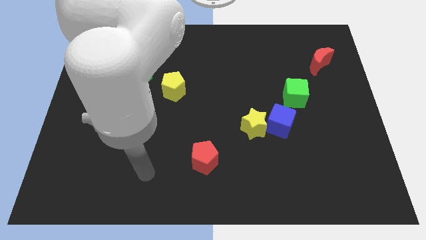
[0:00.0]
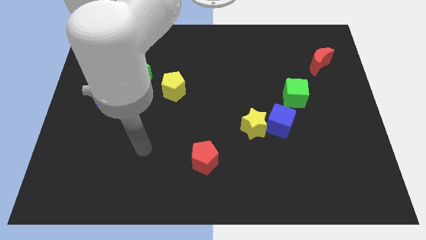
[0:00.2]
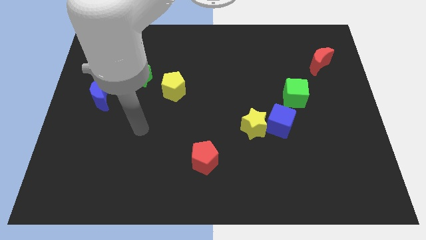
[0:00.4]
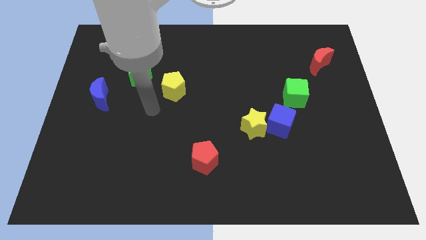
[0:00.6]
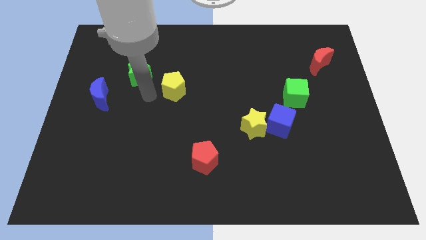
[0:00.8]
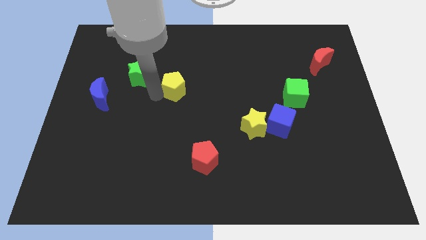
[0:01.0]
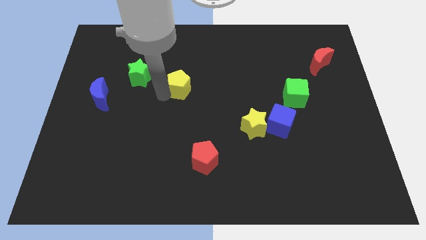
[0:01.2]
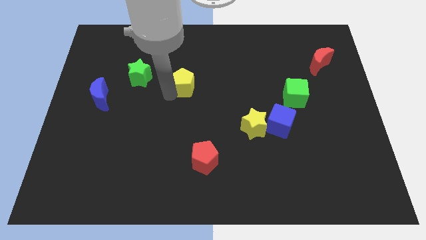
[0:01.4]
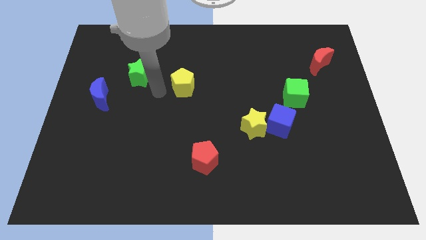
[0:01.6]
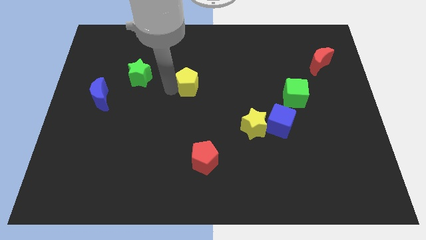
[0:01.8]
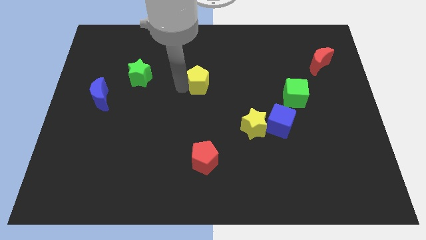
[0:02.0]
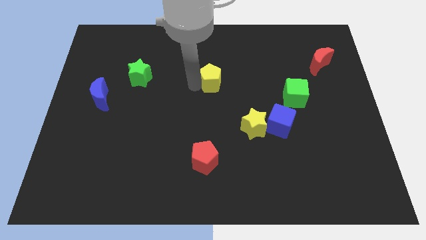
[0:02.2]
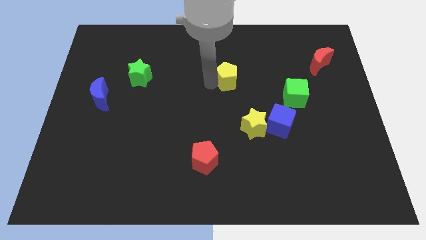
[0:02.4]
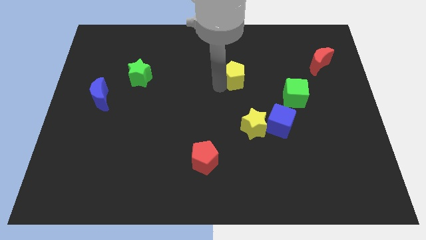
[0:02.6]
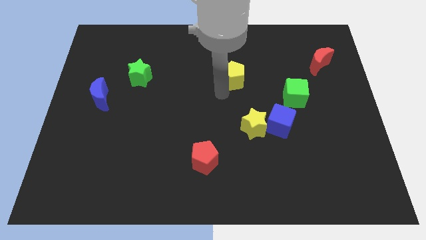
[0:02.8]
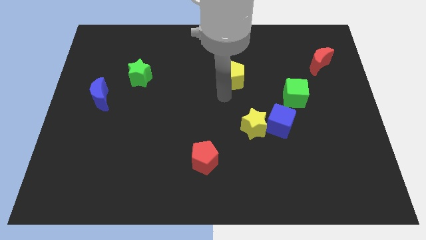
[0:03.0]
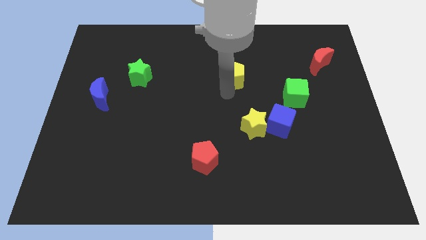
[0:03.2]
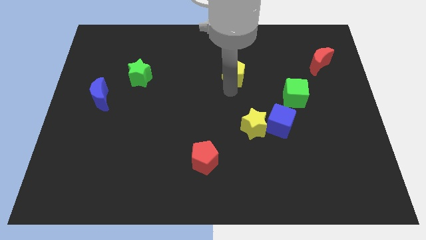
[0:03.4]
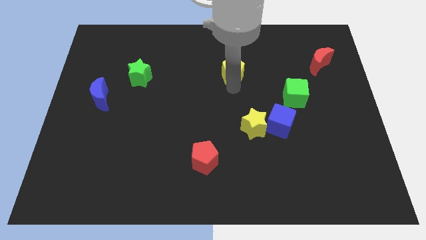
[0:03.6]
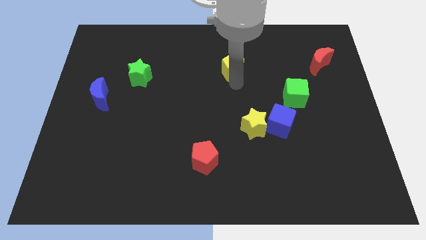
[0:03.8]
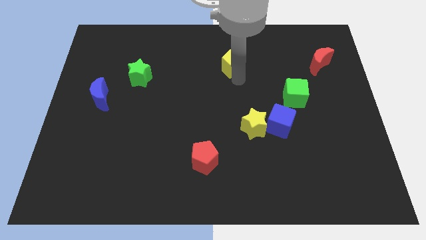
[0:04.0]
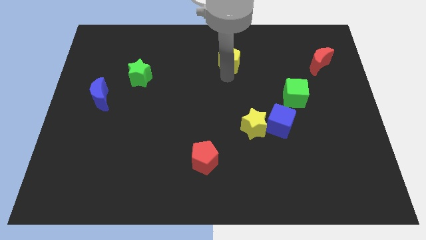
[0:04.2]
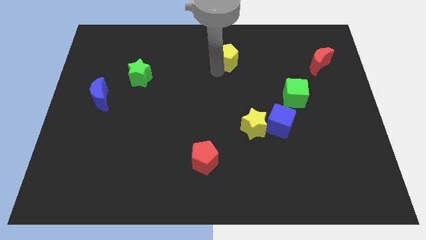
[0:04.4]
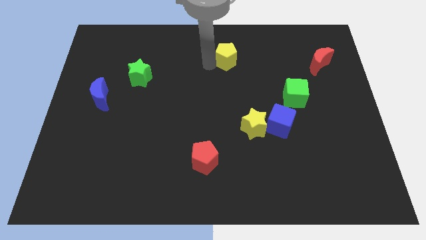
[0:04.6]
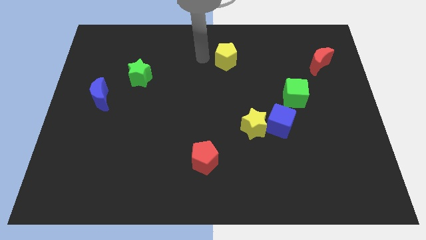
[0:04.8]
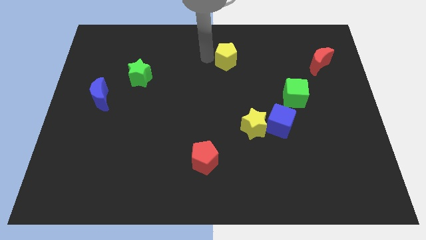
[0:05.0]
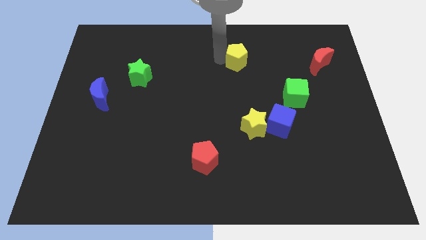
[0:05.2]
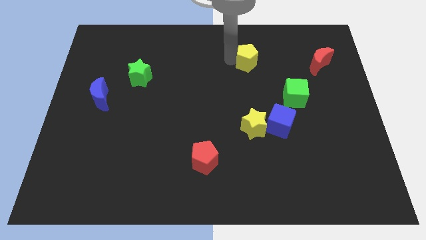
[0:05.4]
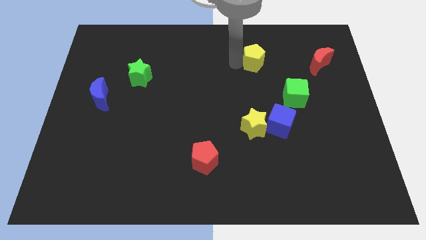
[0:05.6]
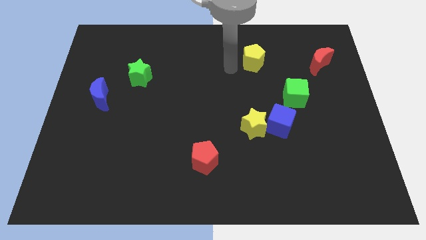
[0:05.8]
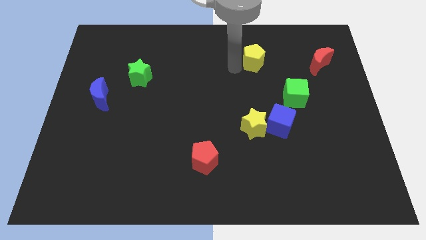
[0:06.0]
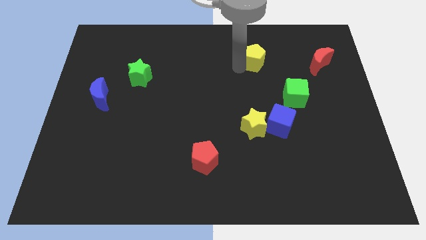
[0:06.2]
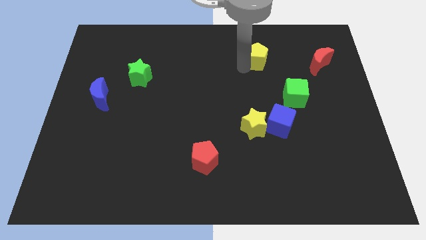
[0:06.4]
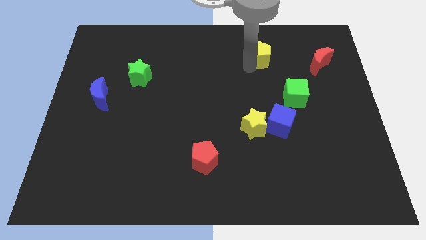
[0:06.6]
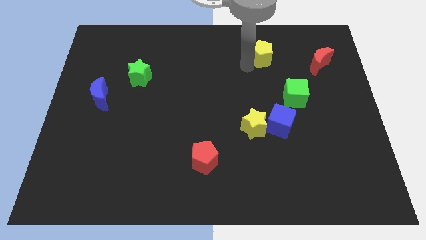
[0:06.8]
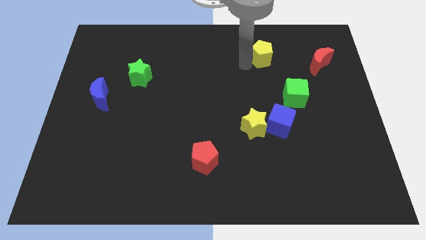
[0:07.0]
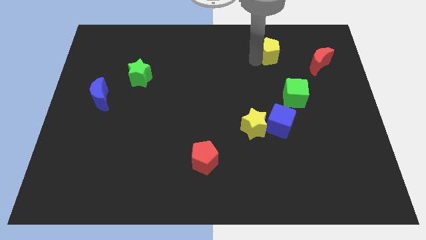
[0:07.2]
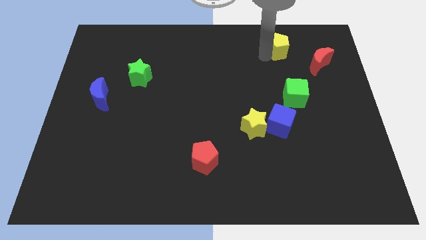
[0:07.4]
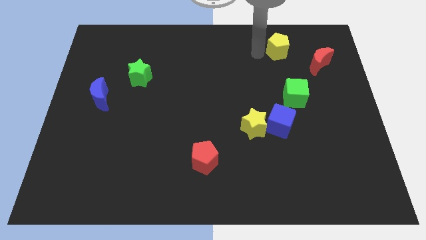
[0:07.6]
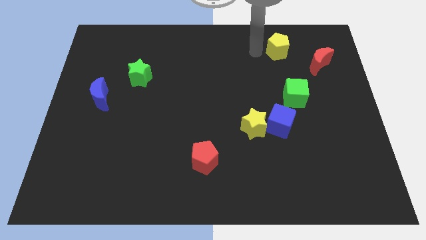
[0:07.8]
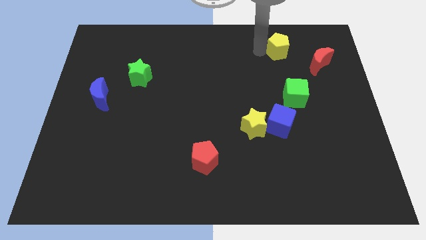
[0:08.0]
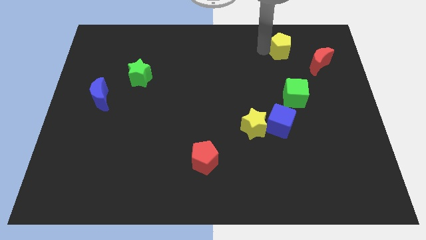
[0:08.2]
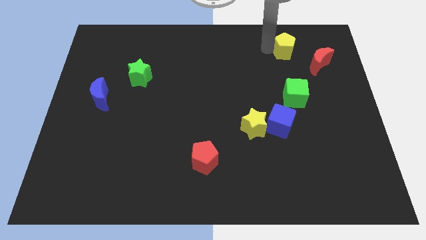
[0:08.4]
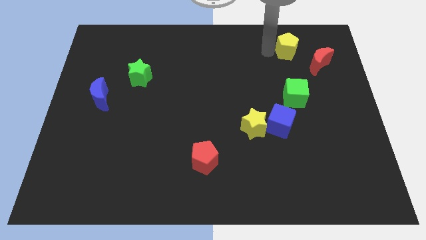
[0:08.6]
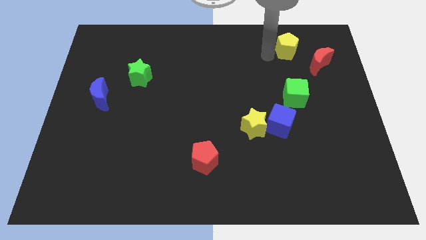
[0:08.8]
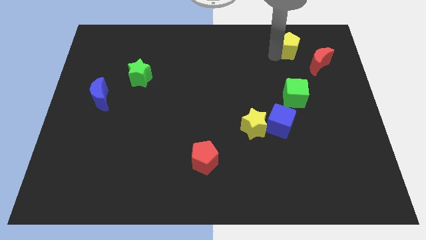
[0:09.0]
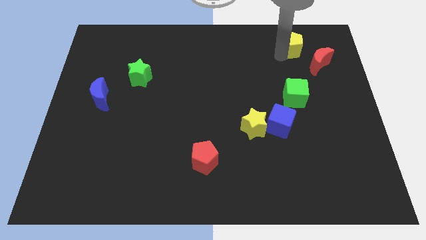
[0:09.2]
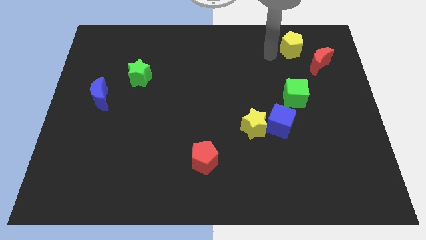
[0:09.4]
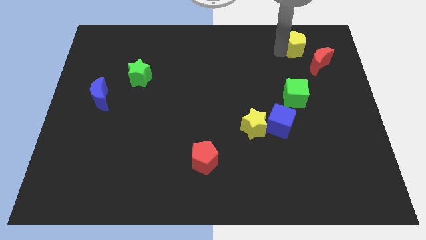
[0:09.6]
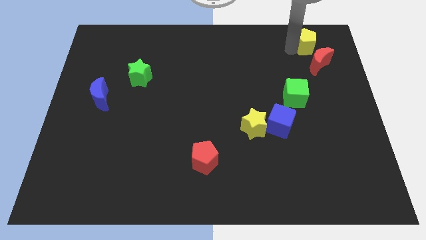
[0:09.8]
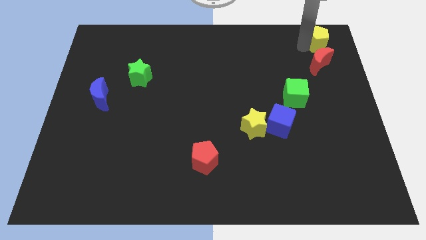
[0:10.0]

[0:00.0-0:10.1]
slide the yellow pentagon to the top right of the board
